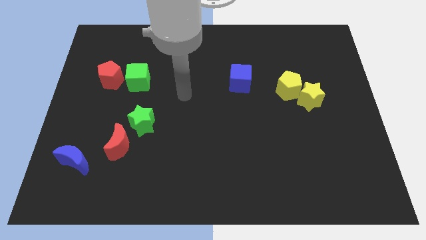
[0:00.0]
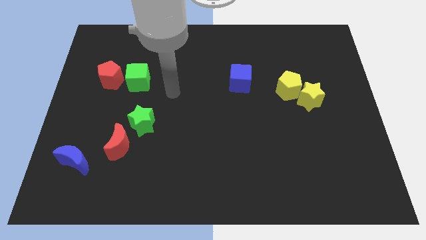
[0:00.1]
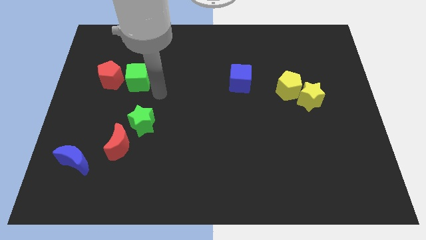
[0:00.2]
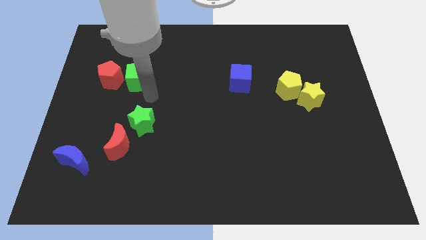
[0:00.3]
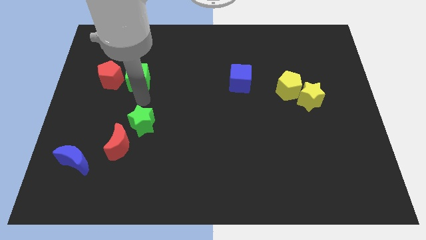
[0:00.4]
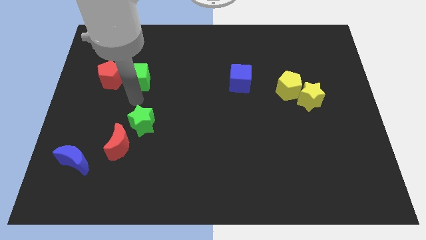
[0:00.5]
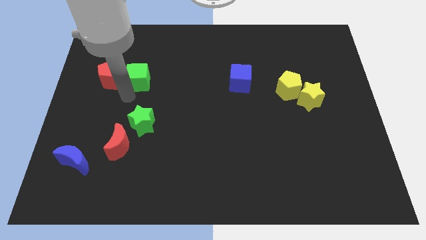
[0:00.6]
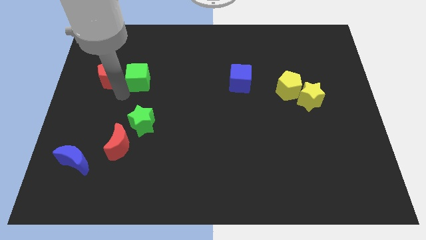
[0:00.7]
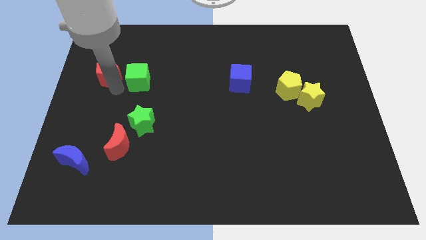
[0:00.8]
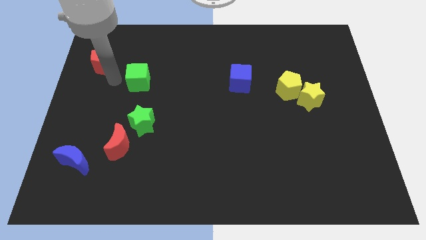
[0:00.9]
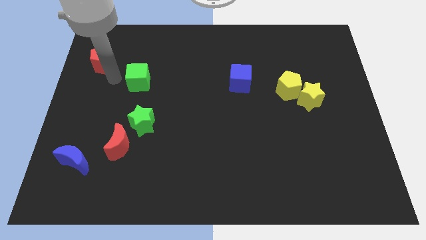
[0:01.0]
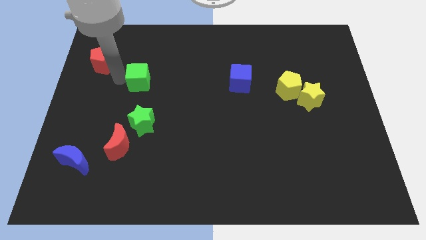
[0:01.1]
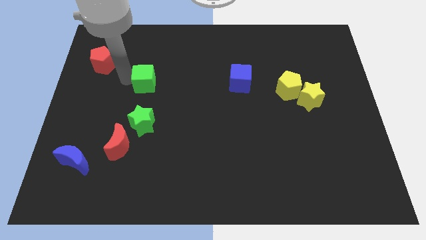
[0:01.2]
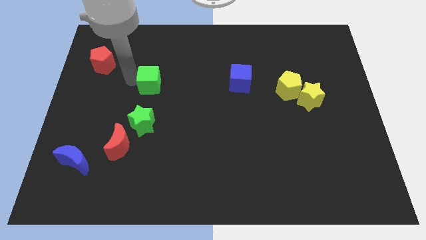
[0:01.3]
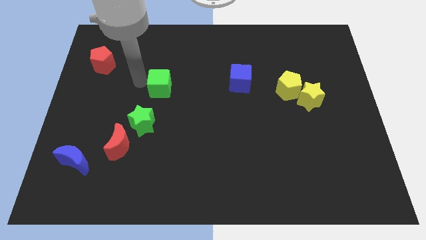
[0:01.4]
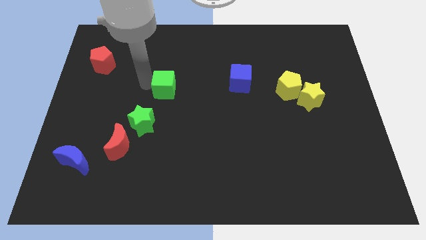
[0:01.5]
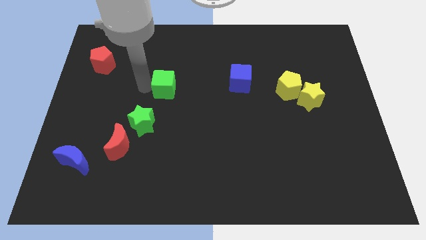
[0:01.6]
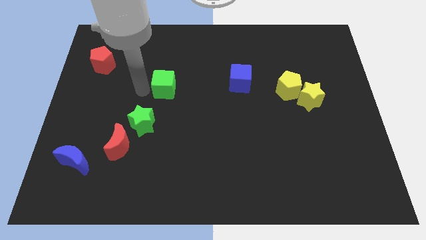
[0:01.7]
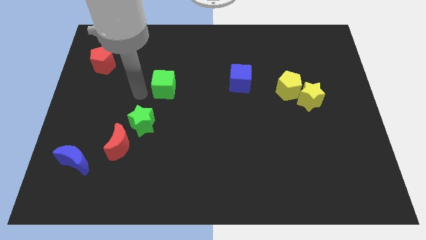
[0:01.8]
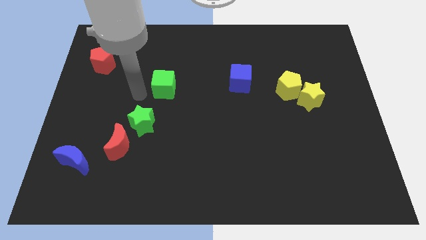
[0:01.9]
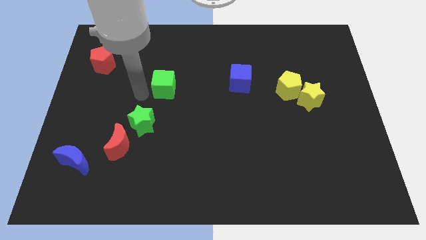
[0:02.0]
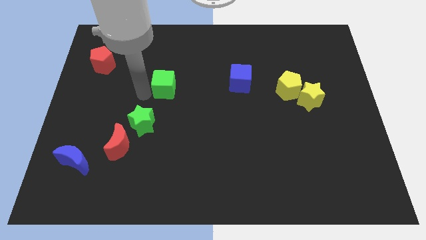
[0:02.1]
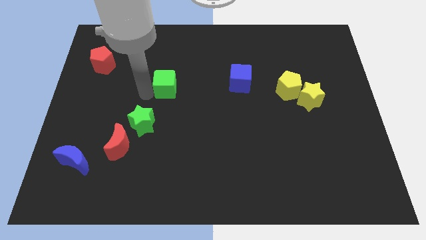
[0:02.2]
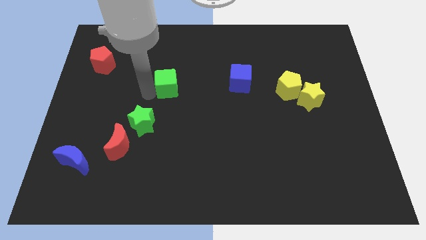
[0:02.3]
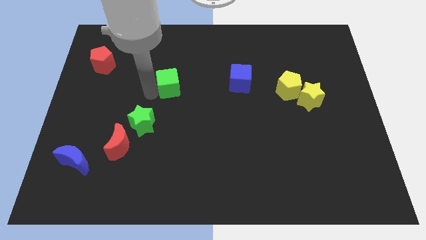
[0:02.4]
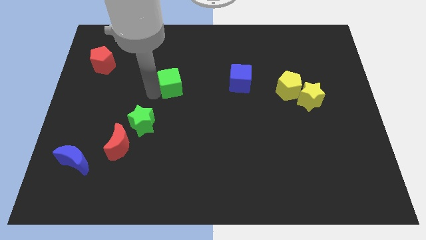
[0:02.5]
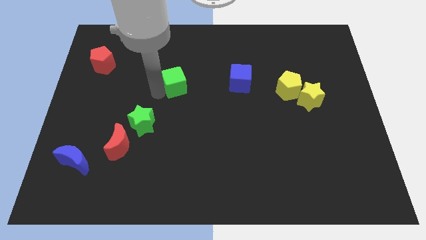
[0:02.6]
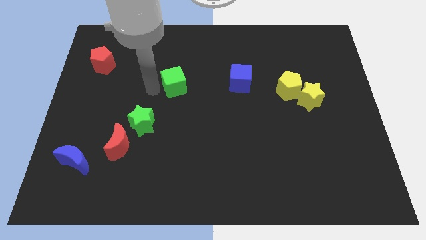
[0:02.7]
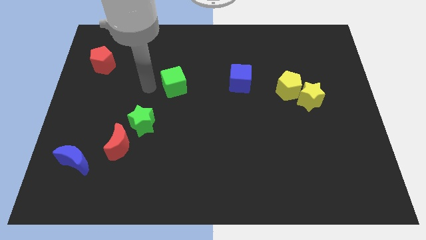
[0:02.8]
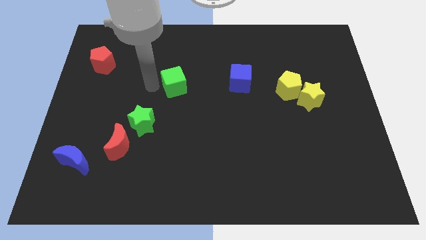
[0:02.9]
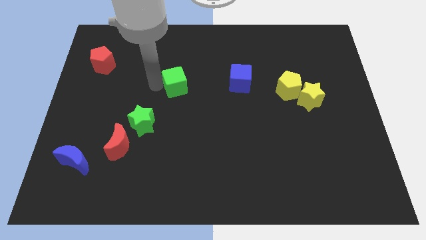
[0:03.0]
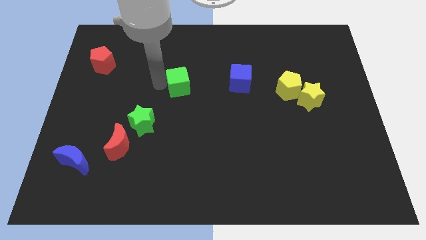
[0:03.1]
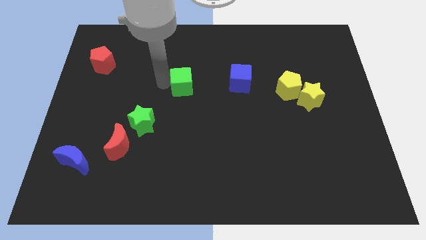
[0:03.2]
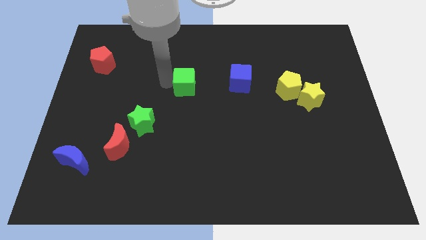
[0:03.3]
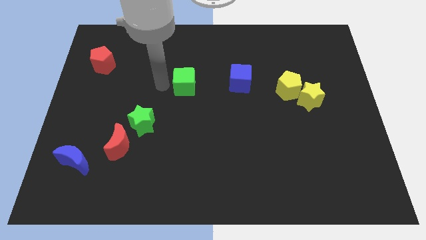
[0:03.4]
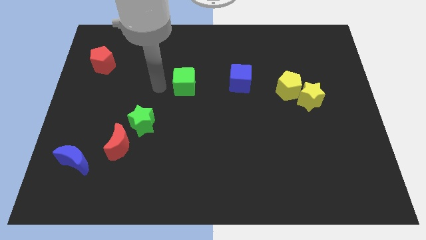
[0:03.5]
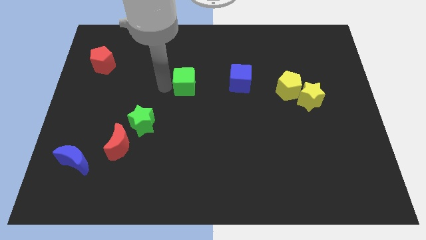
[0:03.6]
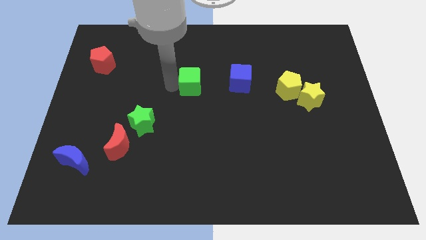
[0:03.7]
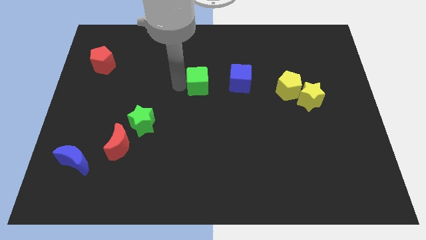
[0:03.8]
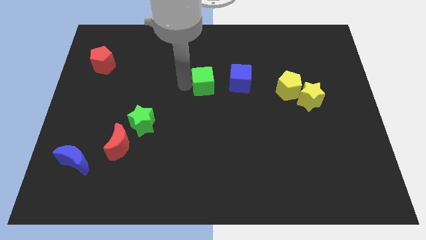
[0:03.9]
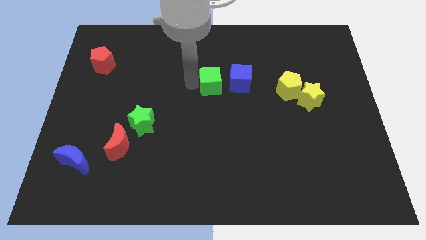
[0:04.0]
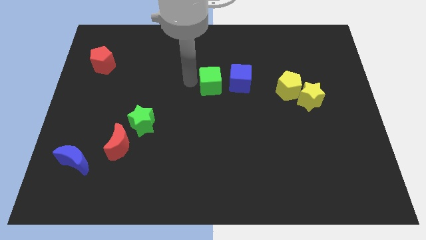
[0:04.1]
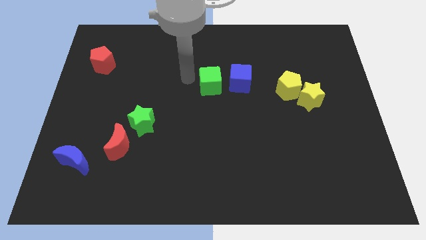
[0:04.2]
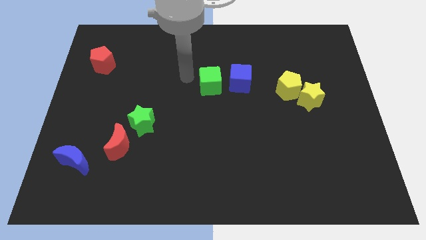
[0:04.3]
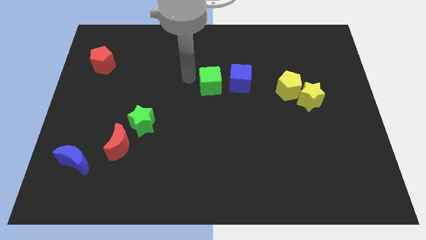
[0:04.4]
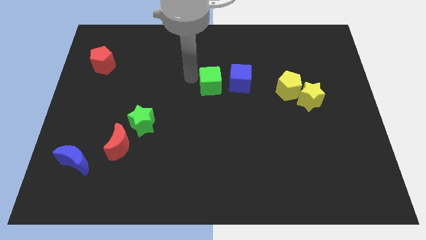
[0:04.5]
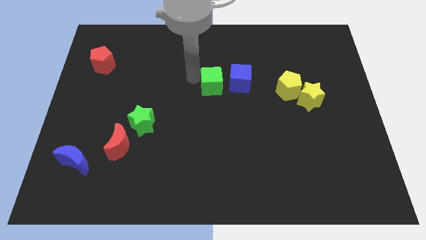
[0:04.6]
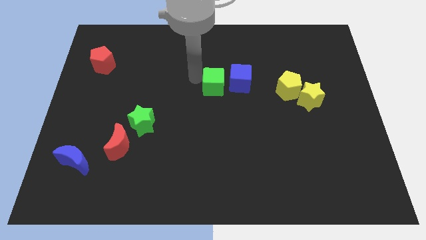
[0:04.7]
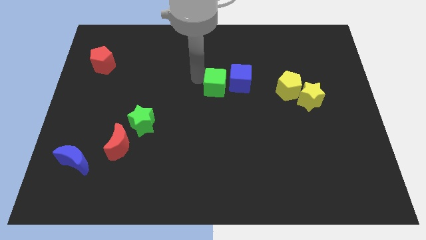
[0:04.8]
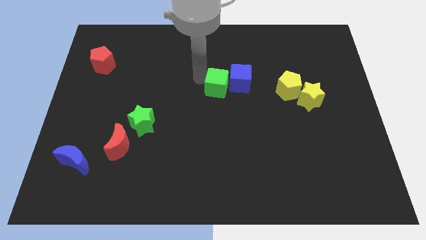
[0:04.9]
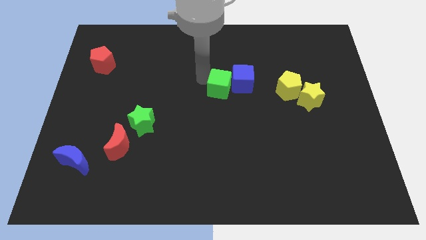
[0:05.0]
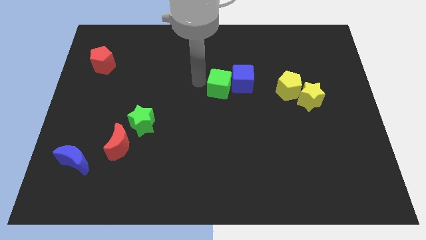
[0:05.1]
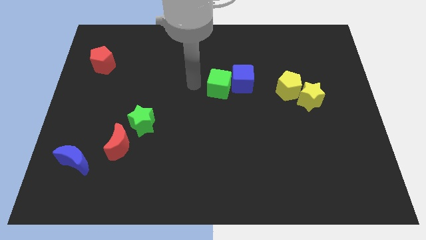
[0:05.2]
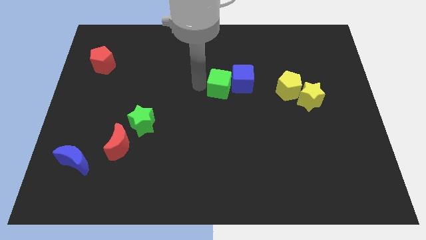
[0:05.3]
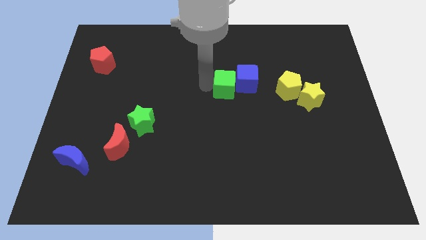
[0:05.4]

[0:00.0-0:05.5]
put the green cube to the left of the yellow pentagon
